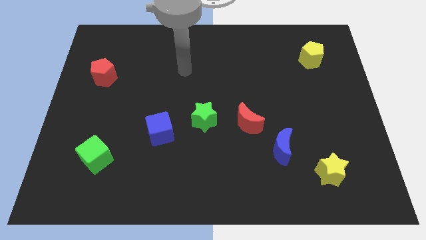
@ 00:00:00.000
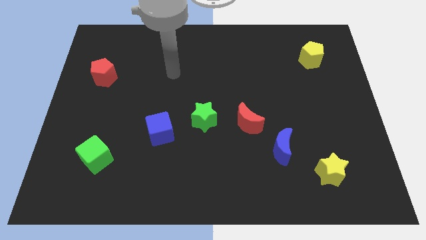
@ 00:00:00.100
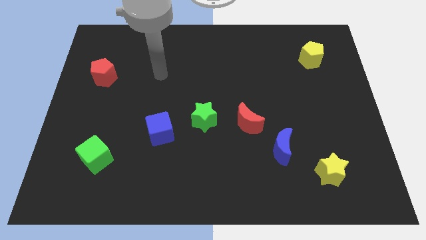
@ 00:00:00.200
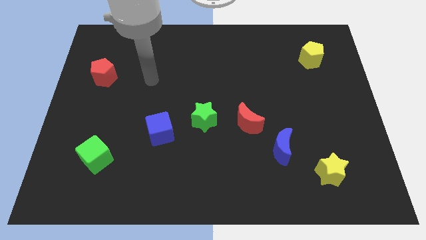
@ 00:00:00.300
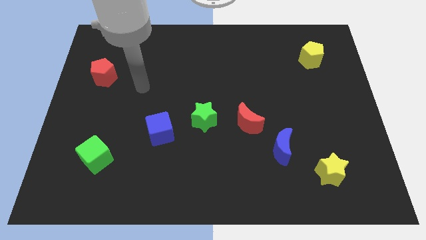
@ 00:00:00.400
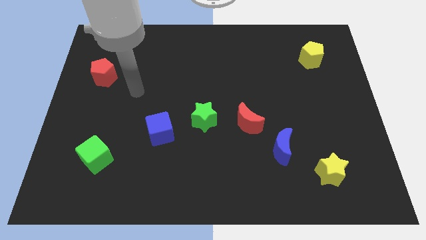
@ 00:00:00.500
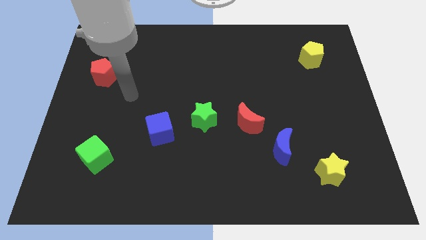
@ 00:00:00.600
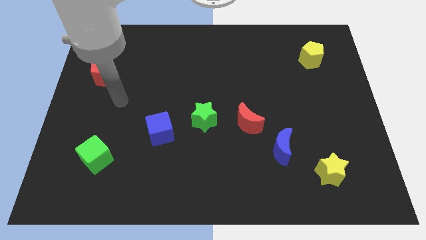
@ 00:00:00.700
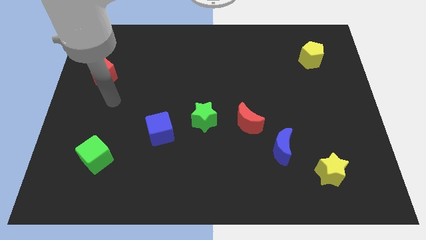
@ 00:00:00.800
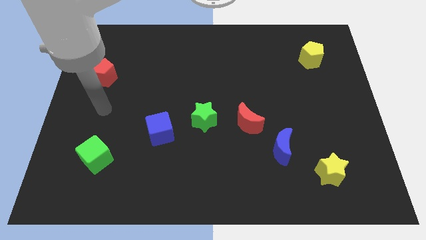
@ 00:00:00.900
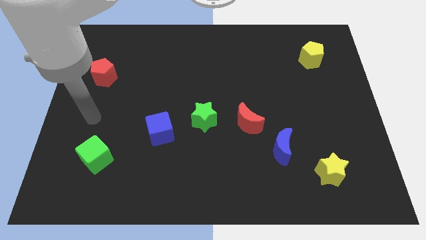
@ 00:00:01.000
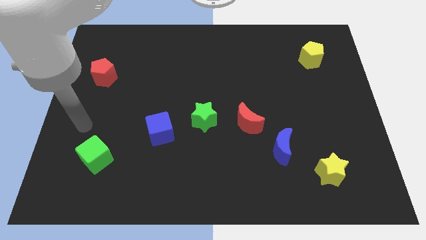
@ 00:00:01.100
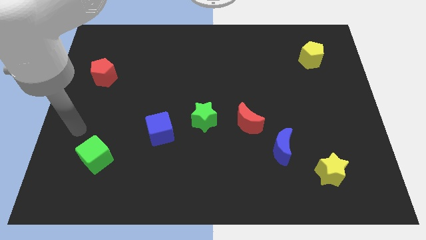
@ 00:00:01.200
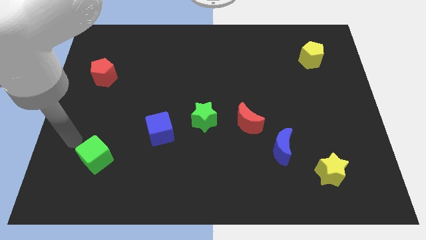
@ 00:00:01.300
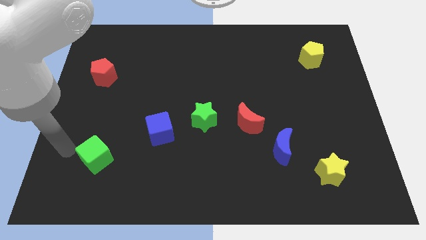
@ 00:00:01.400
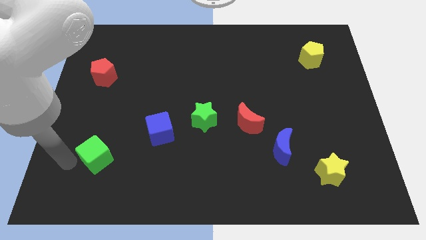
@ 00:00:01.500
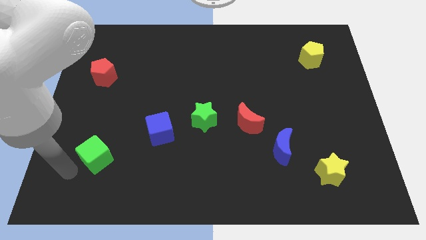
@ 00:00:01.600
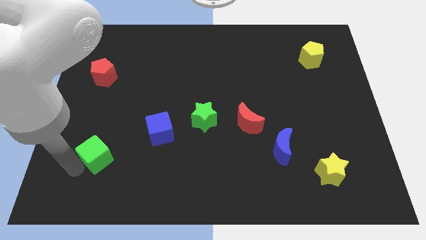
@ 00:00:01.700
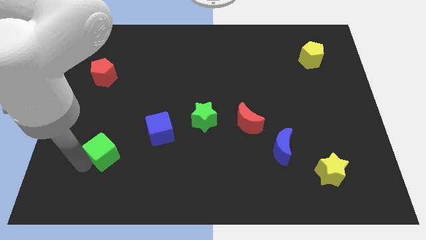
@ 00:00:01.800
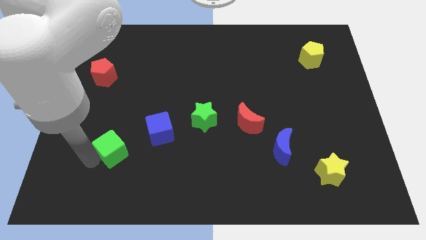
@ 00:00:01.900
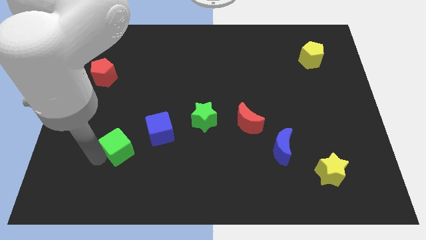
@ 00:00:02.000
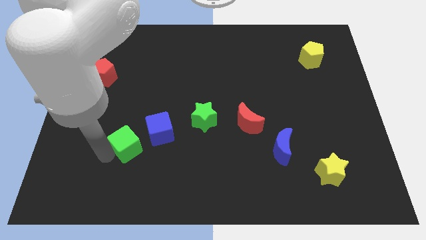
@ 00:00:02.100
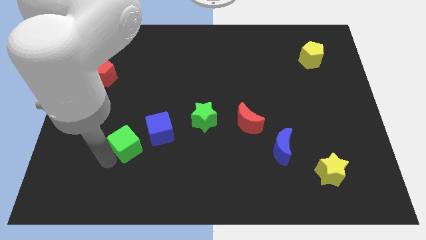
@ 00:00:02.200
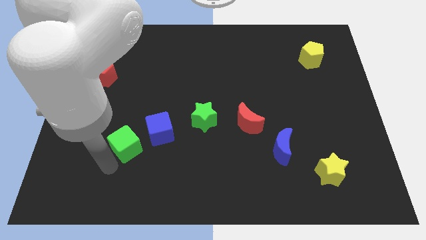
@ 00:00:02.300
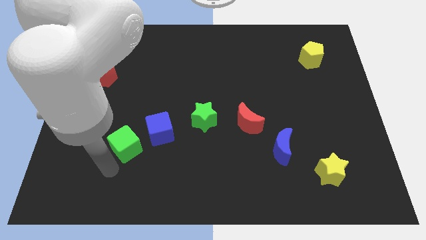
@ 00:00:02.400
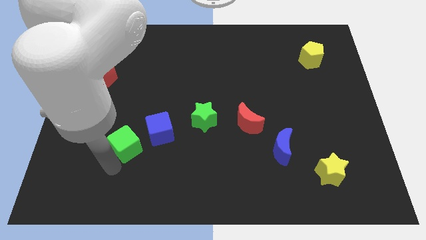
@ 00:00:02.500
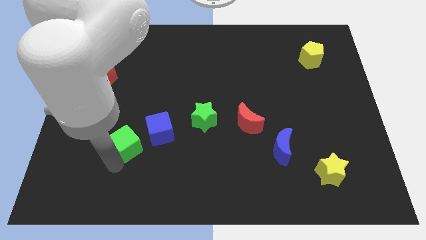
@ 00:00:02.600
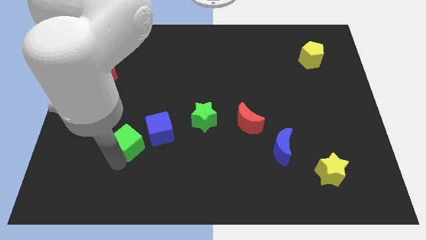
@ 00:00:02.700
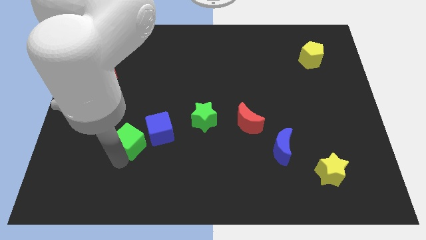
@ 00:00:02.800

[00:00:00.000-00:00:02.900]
slightly push the green cube up and to the right diagonally

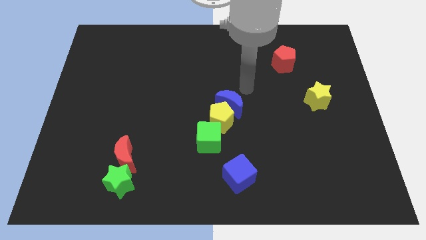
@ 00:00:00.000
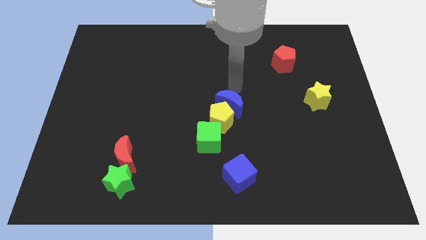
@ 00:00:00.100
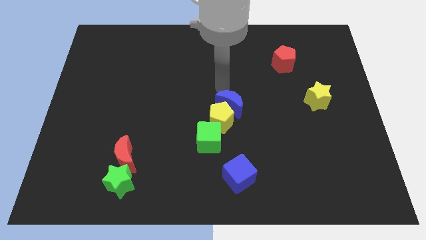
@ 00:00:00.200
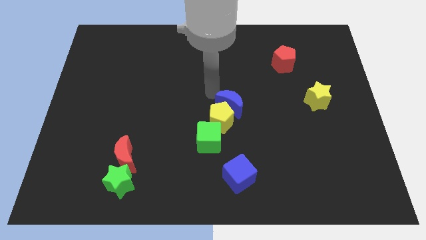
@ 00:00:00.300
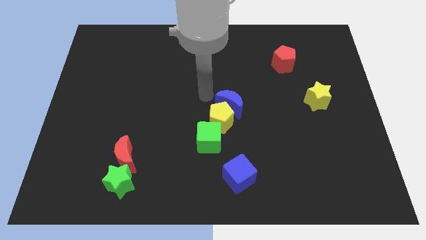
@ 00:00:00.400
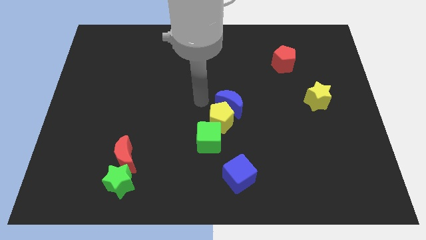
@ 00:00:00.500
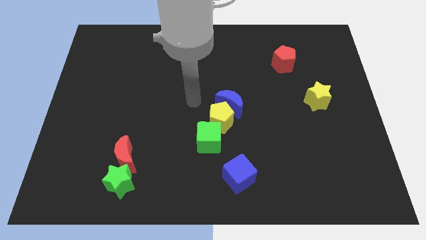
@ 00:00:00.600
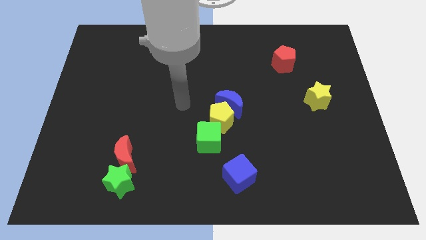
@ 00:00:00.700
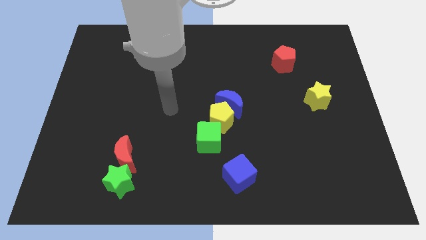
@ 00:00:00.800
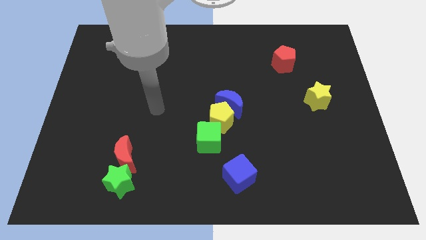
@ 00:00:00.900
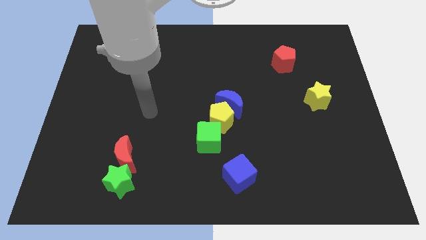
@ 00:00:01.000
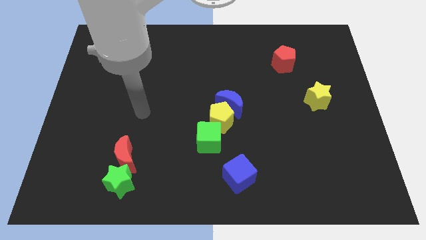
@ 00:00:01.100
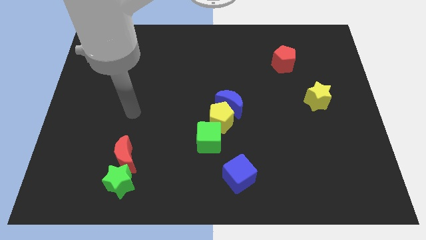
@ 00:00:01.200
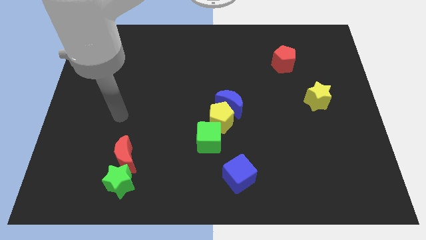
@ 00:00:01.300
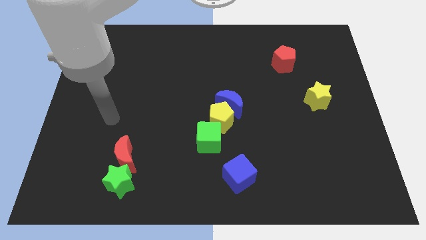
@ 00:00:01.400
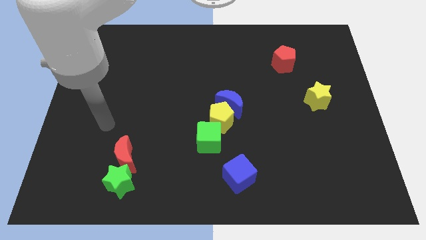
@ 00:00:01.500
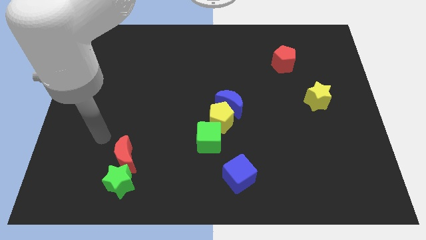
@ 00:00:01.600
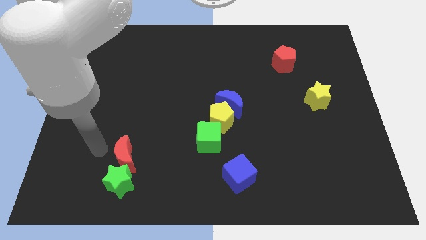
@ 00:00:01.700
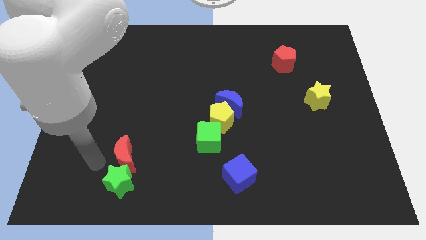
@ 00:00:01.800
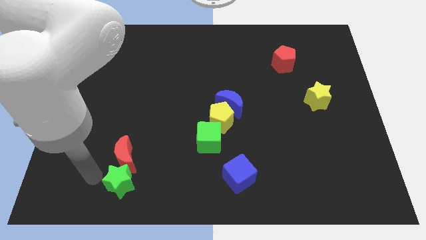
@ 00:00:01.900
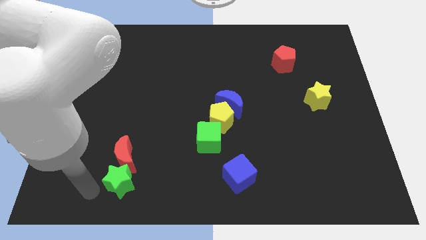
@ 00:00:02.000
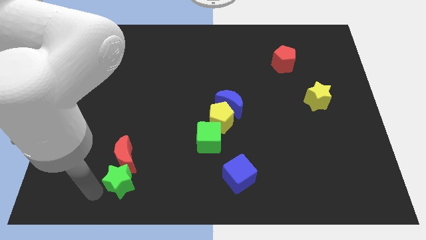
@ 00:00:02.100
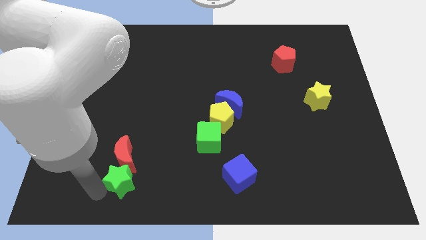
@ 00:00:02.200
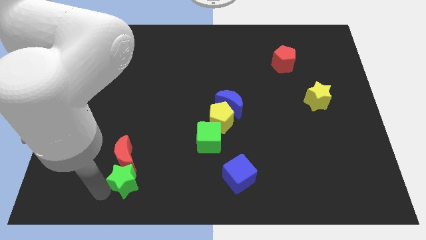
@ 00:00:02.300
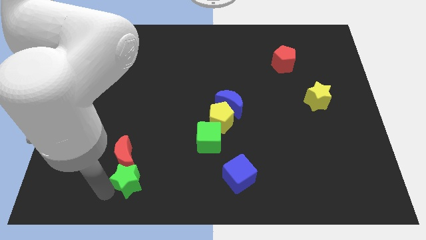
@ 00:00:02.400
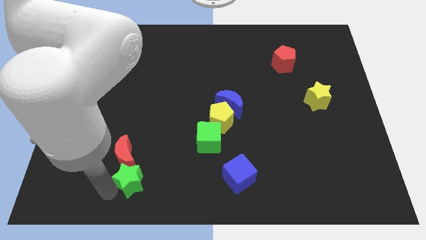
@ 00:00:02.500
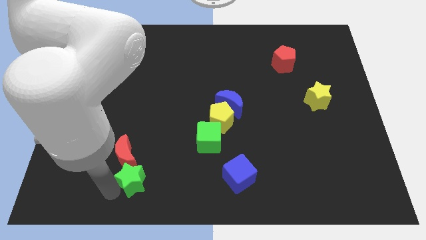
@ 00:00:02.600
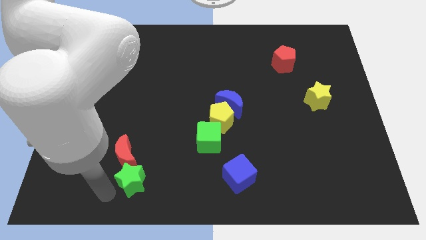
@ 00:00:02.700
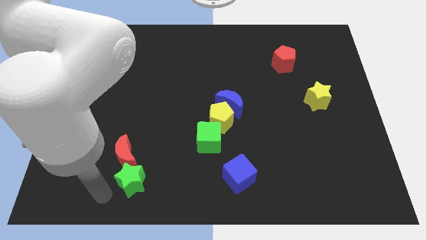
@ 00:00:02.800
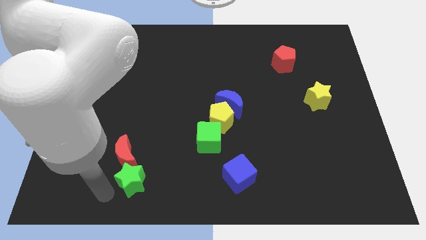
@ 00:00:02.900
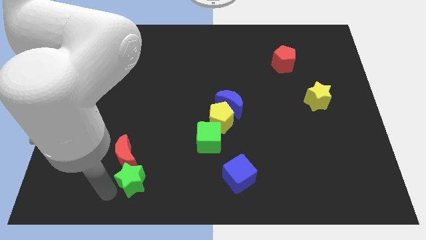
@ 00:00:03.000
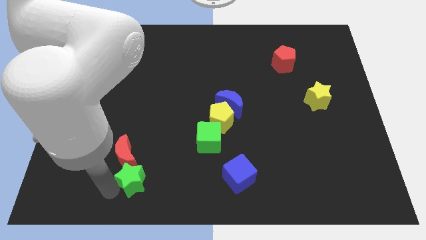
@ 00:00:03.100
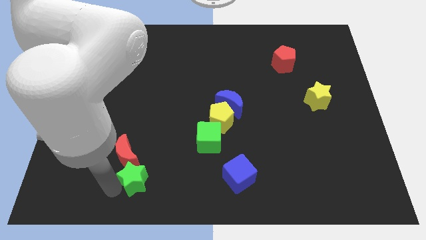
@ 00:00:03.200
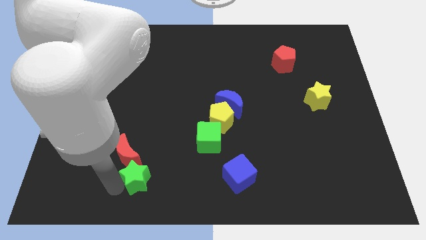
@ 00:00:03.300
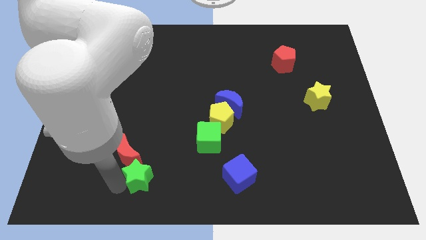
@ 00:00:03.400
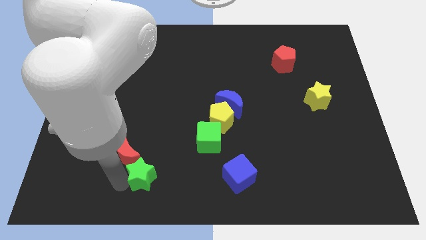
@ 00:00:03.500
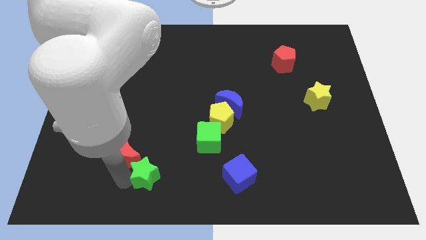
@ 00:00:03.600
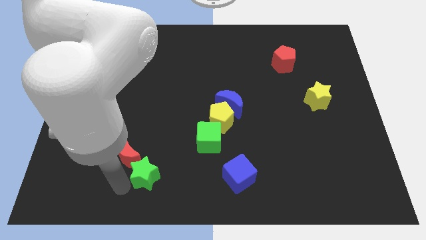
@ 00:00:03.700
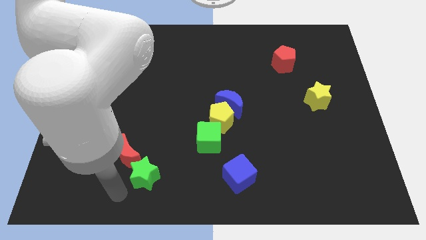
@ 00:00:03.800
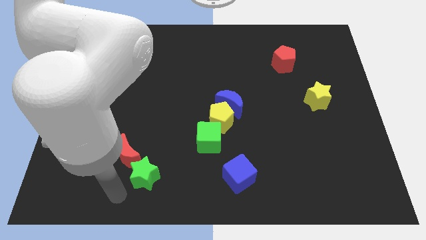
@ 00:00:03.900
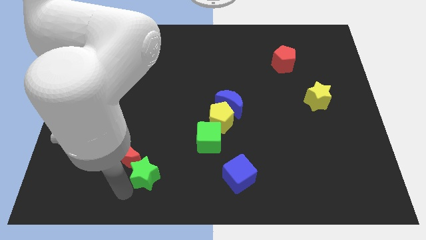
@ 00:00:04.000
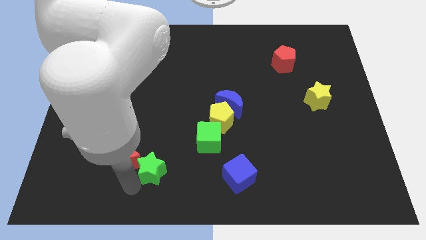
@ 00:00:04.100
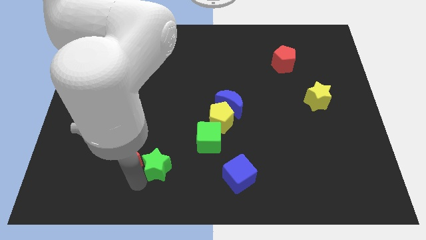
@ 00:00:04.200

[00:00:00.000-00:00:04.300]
slide the green star up and then right somewhat

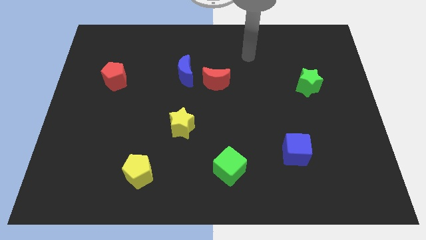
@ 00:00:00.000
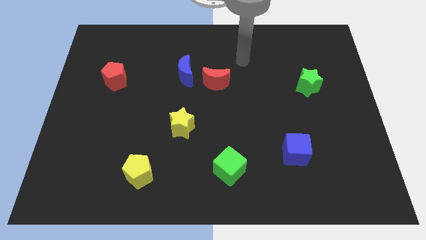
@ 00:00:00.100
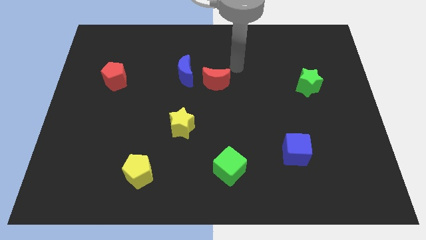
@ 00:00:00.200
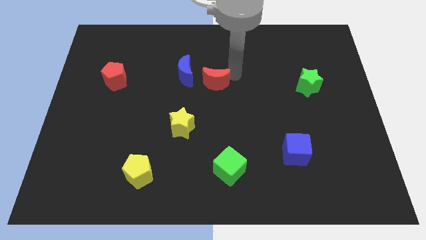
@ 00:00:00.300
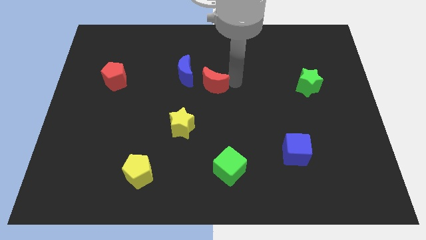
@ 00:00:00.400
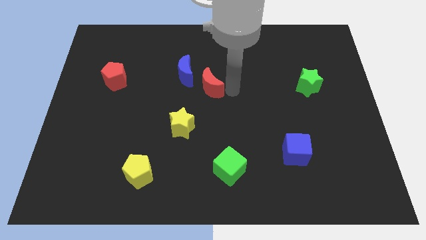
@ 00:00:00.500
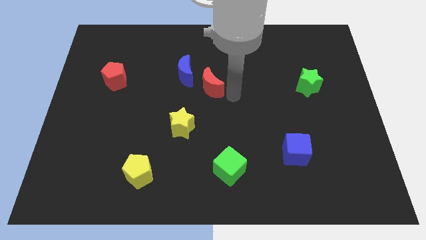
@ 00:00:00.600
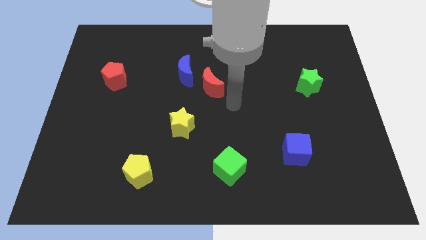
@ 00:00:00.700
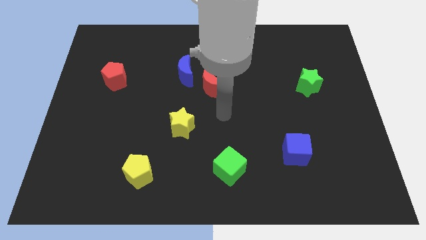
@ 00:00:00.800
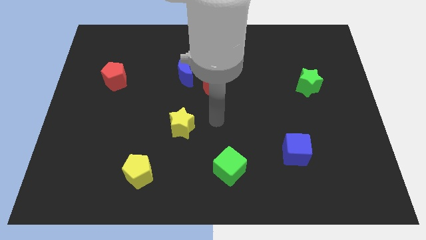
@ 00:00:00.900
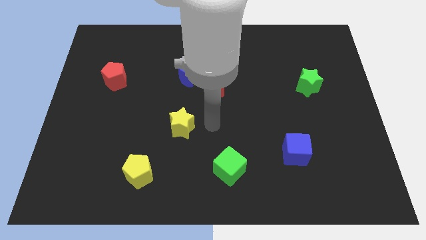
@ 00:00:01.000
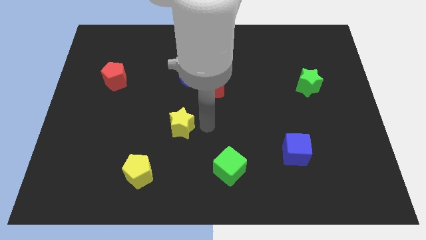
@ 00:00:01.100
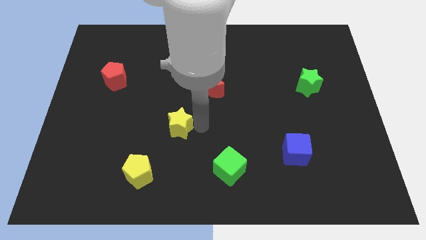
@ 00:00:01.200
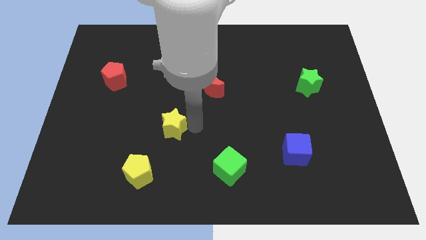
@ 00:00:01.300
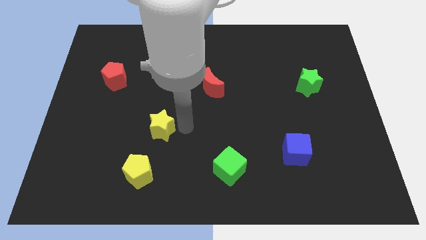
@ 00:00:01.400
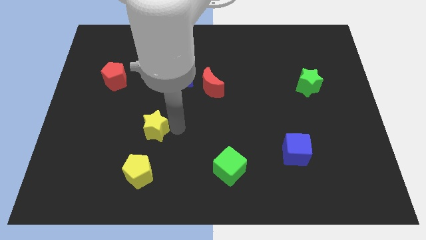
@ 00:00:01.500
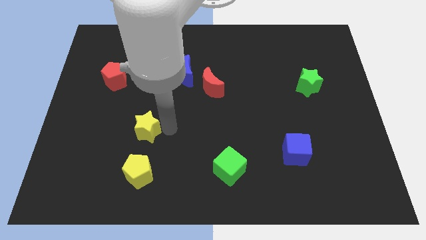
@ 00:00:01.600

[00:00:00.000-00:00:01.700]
slightly move the yellow star left
